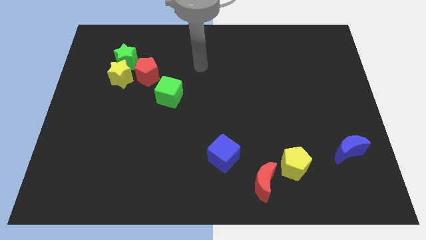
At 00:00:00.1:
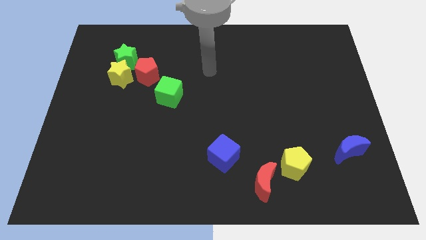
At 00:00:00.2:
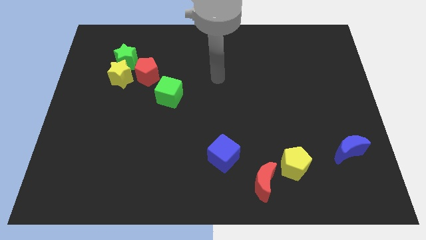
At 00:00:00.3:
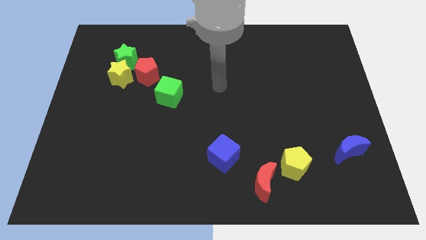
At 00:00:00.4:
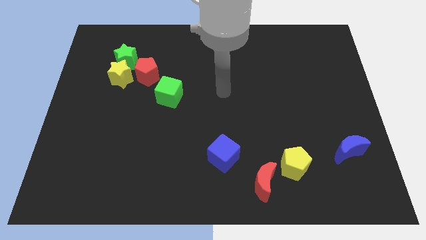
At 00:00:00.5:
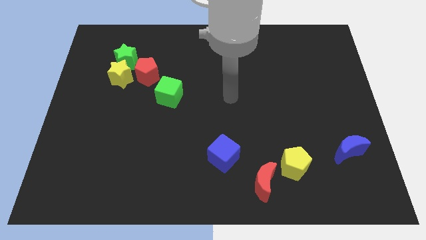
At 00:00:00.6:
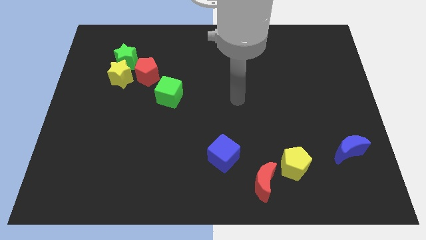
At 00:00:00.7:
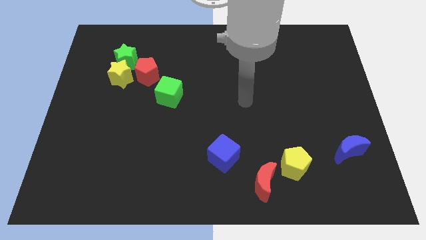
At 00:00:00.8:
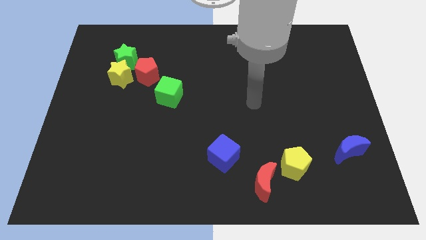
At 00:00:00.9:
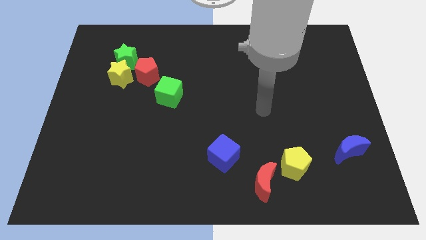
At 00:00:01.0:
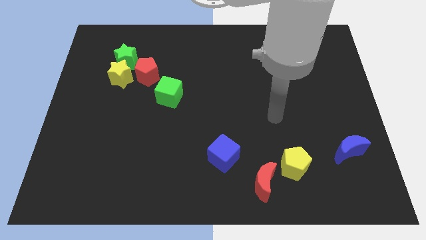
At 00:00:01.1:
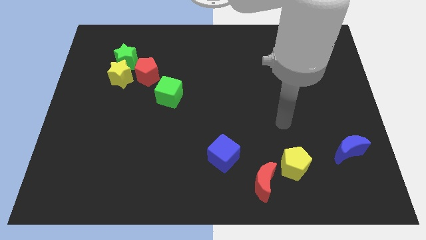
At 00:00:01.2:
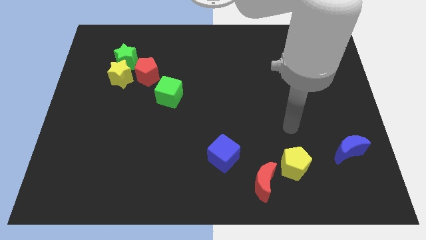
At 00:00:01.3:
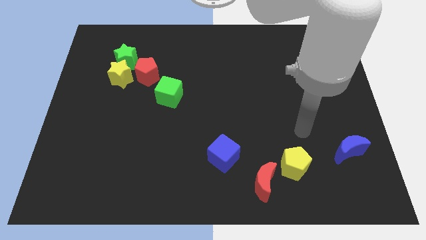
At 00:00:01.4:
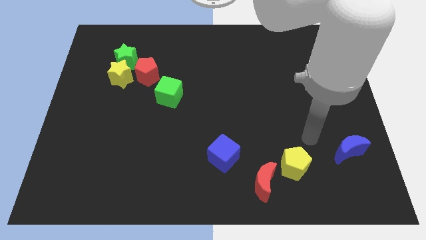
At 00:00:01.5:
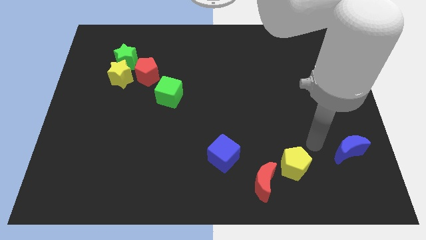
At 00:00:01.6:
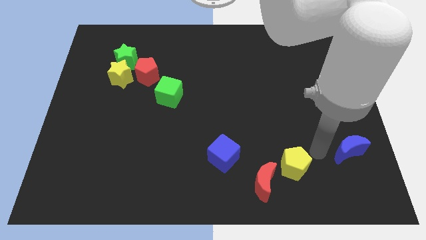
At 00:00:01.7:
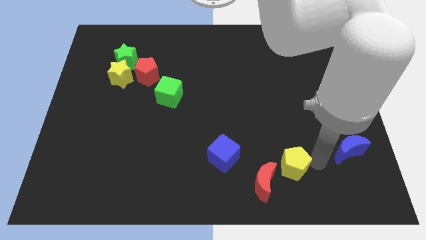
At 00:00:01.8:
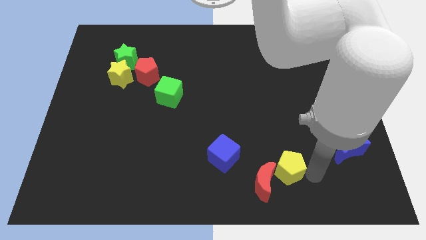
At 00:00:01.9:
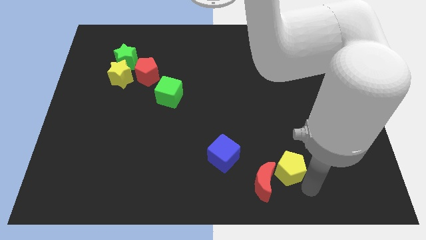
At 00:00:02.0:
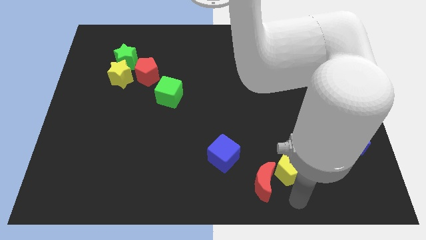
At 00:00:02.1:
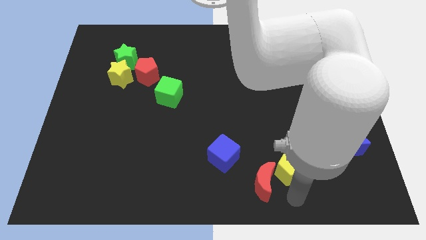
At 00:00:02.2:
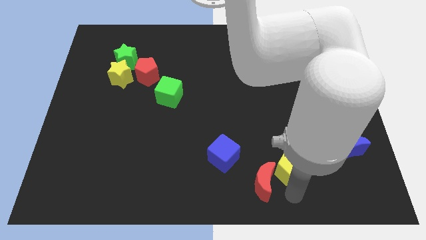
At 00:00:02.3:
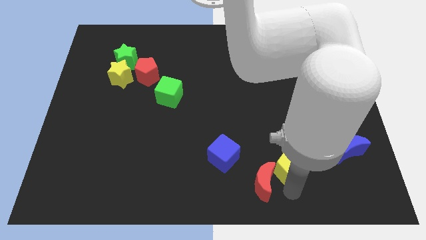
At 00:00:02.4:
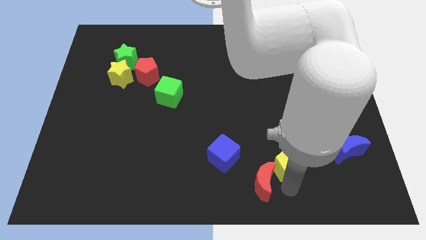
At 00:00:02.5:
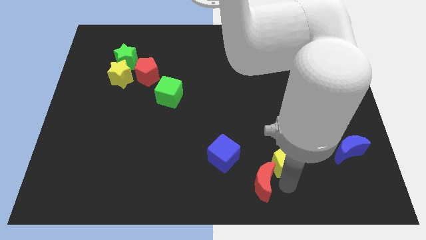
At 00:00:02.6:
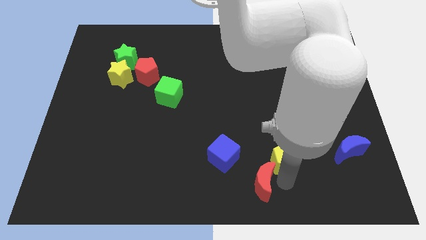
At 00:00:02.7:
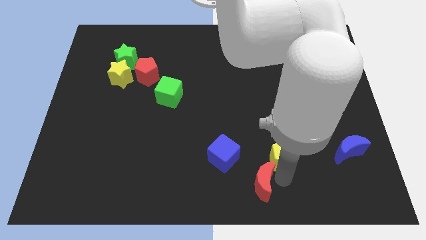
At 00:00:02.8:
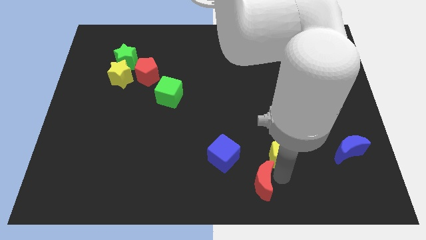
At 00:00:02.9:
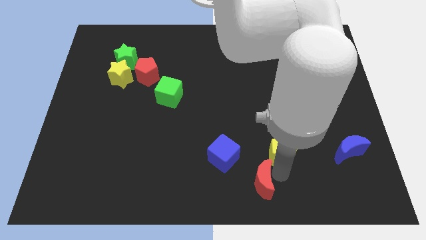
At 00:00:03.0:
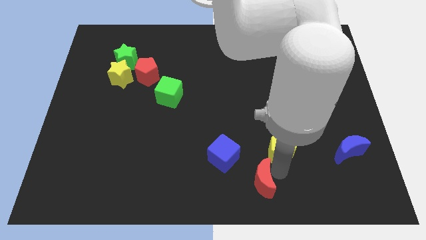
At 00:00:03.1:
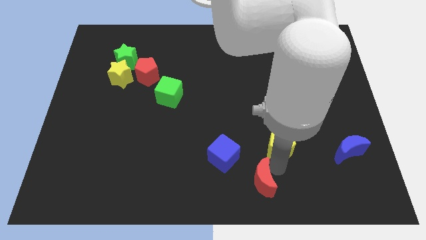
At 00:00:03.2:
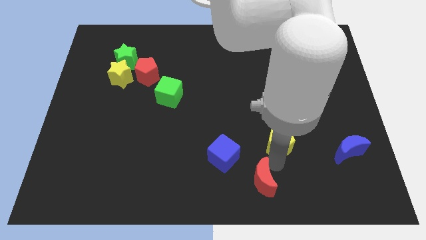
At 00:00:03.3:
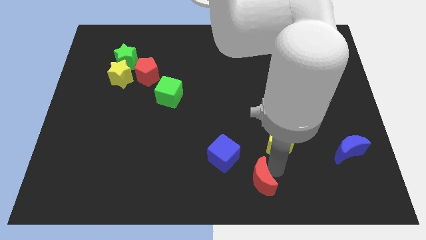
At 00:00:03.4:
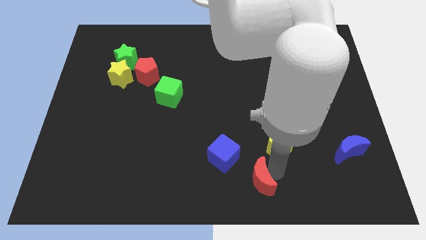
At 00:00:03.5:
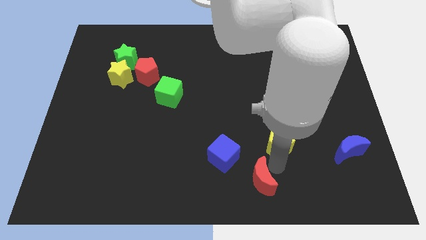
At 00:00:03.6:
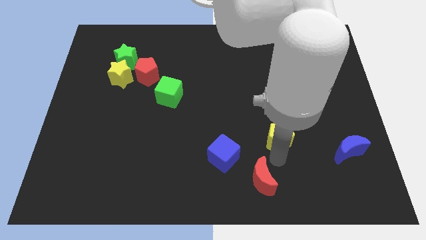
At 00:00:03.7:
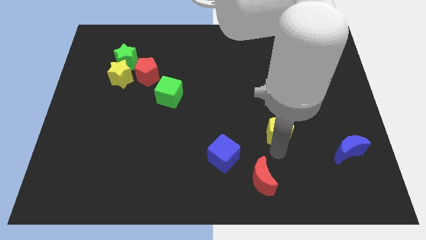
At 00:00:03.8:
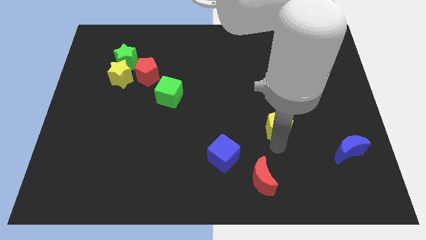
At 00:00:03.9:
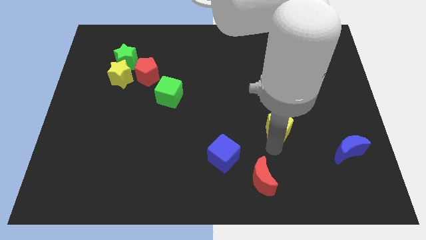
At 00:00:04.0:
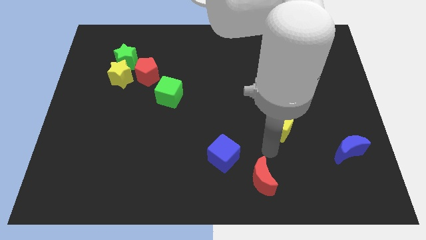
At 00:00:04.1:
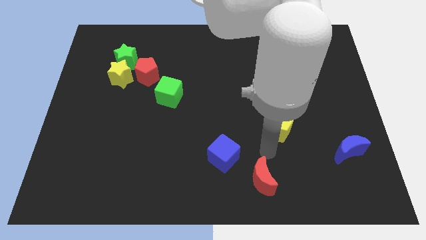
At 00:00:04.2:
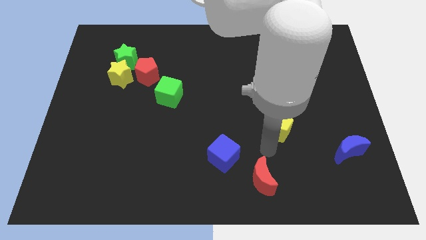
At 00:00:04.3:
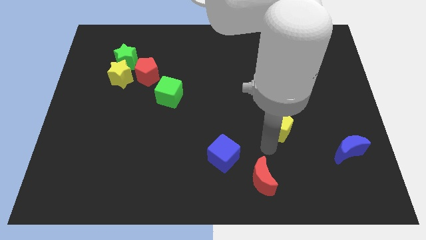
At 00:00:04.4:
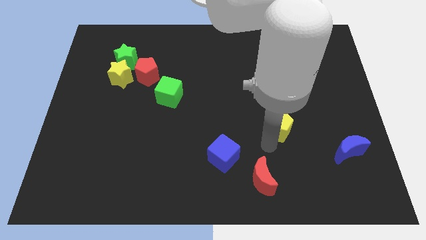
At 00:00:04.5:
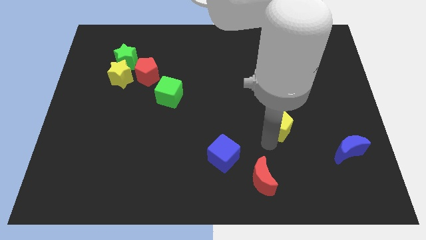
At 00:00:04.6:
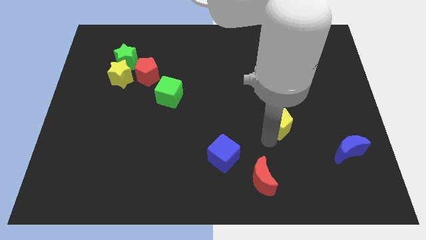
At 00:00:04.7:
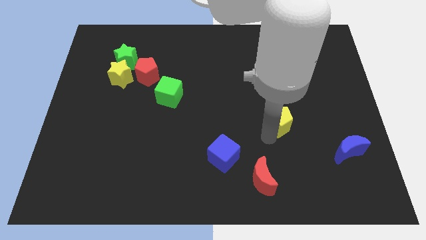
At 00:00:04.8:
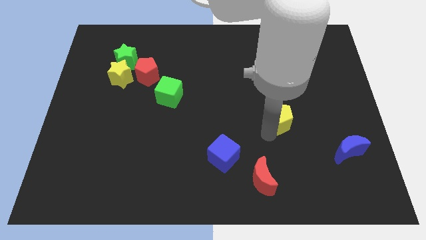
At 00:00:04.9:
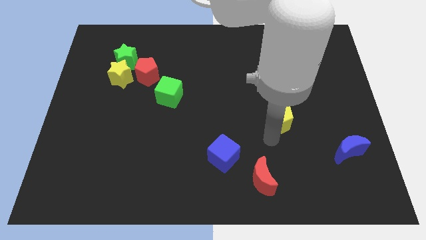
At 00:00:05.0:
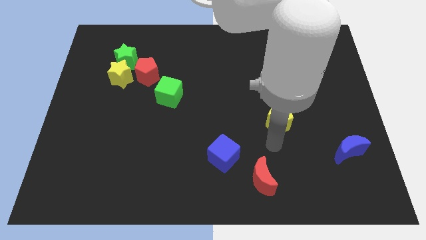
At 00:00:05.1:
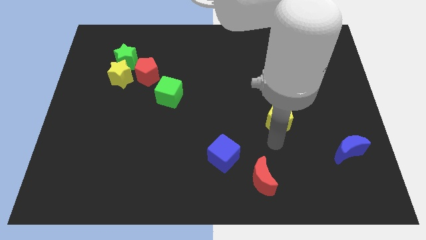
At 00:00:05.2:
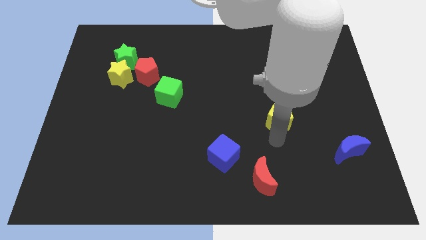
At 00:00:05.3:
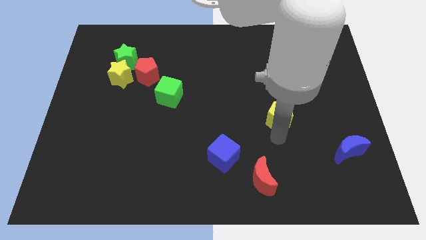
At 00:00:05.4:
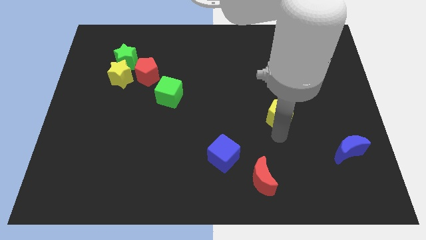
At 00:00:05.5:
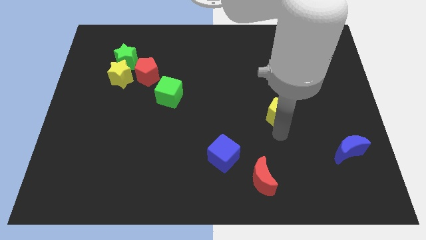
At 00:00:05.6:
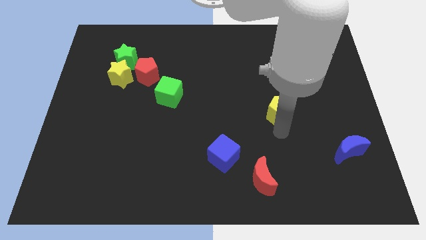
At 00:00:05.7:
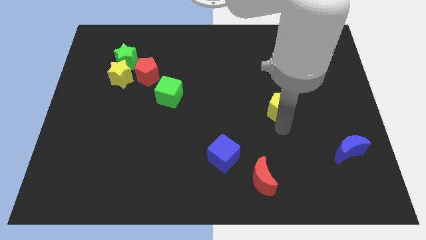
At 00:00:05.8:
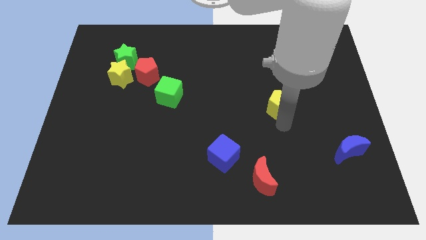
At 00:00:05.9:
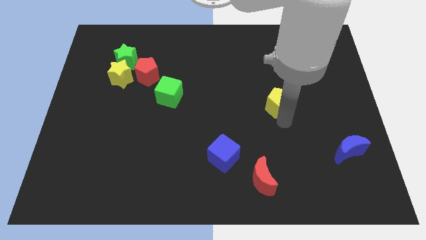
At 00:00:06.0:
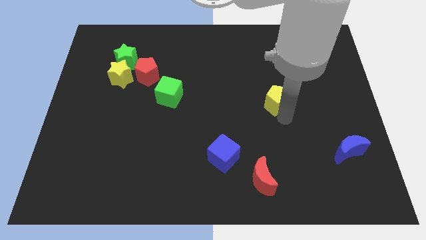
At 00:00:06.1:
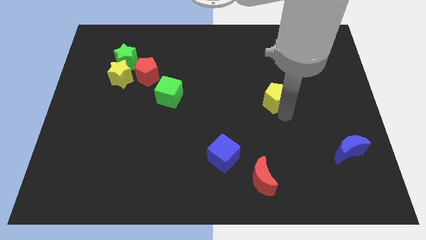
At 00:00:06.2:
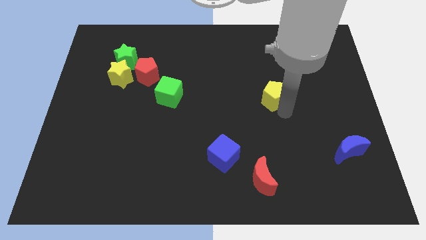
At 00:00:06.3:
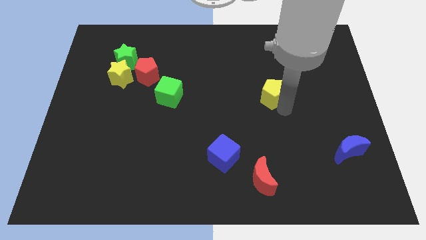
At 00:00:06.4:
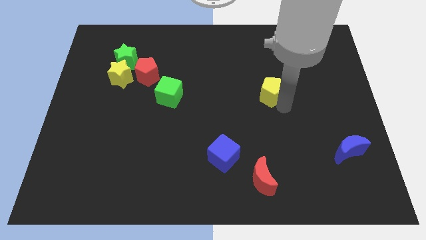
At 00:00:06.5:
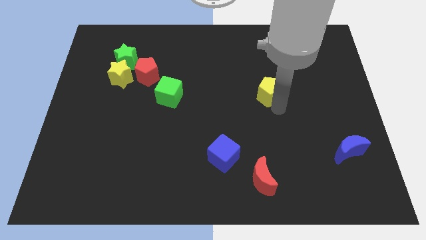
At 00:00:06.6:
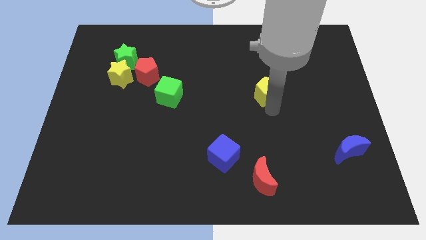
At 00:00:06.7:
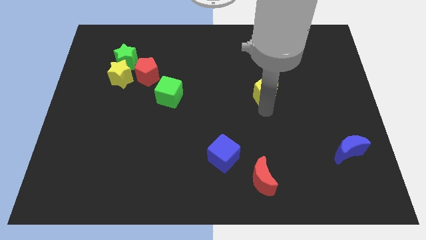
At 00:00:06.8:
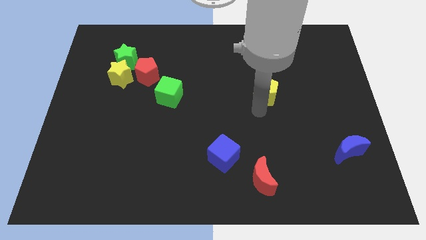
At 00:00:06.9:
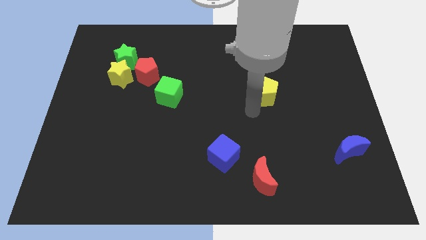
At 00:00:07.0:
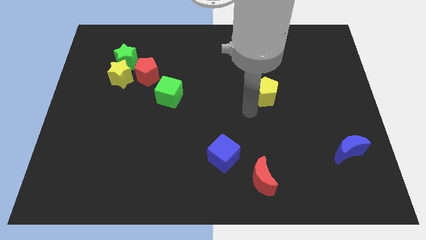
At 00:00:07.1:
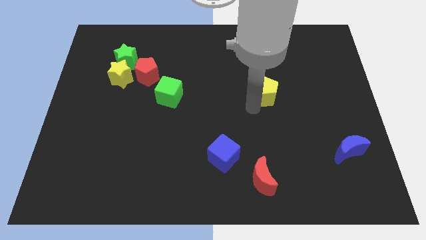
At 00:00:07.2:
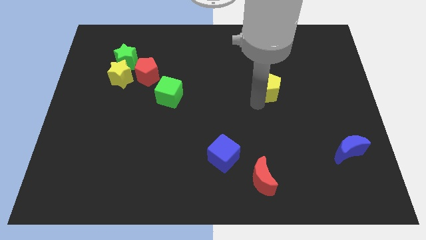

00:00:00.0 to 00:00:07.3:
push the yellow pentagon upwards

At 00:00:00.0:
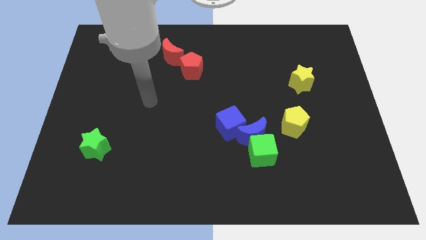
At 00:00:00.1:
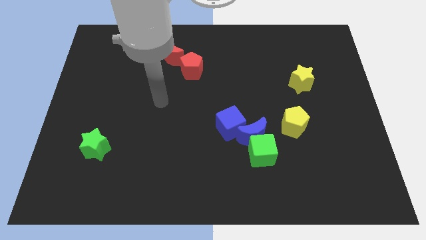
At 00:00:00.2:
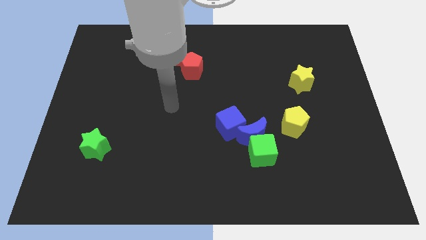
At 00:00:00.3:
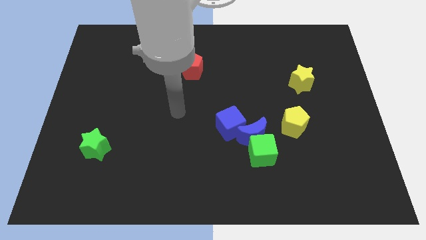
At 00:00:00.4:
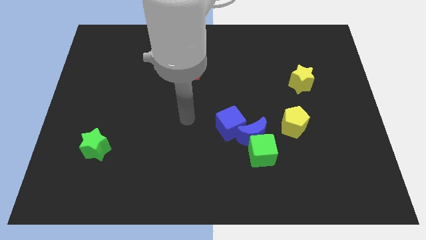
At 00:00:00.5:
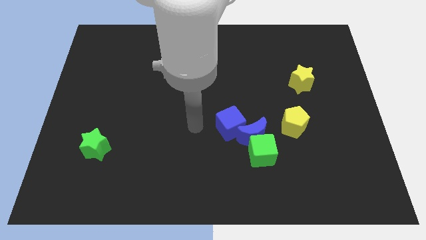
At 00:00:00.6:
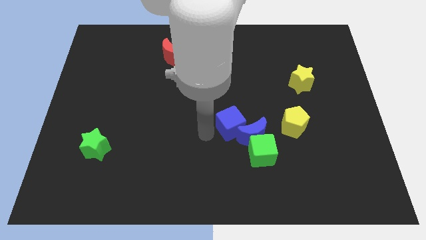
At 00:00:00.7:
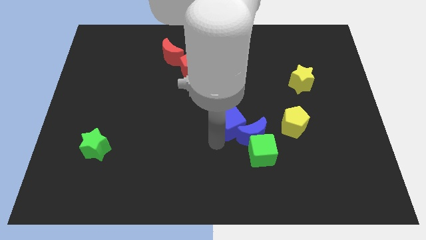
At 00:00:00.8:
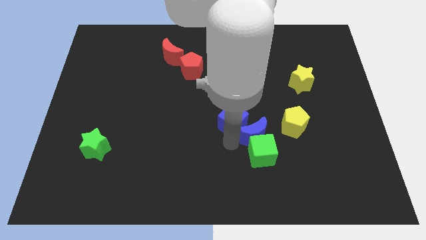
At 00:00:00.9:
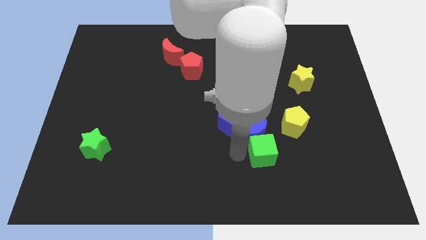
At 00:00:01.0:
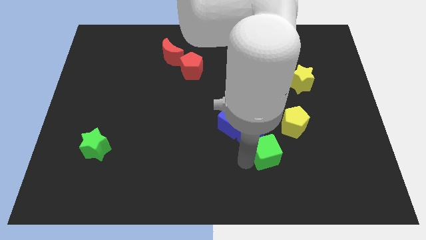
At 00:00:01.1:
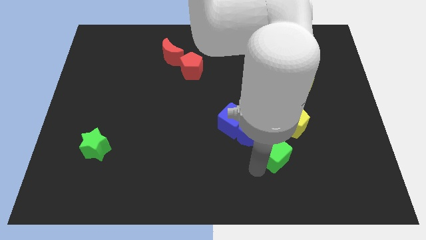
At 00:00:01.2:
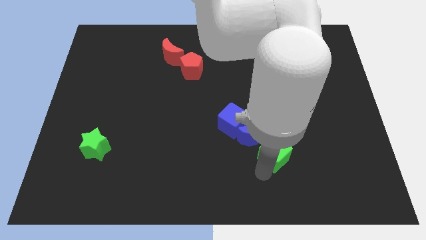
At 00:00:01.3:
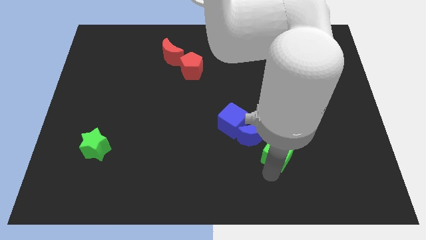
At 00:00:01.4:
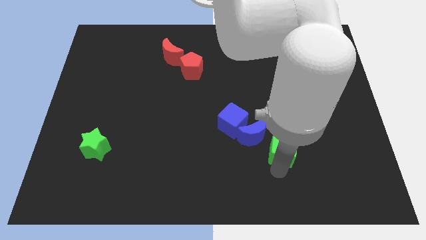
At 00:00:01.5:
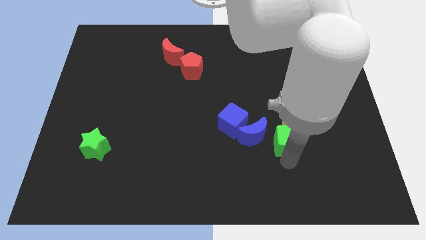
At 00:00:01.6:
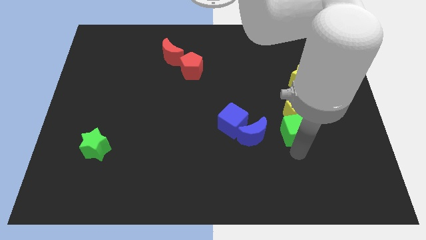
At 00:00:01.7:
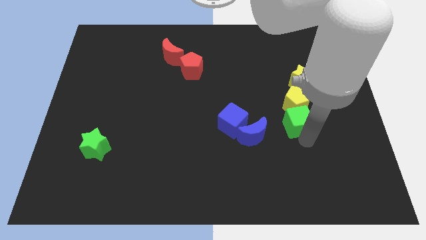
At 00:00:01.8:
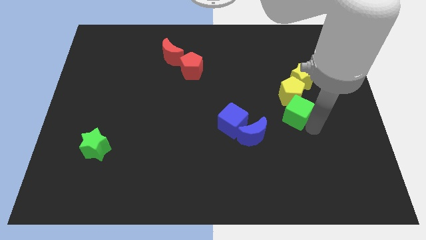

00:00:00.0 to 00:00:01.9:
slide the yellow pentagon a bit upwards
